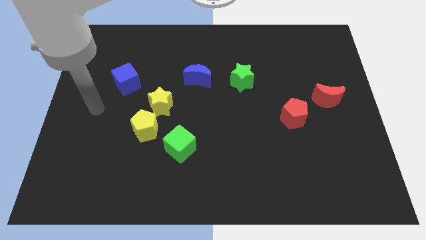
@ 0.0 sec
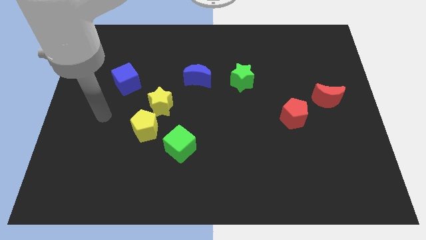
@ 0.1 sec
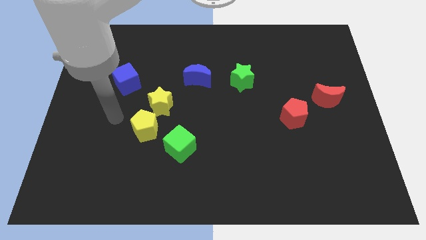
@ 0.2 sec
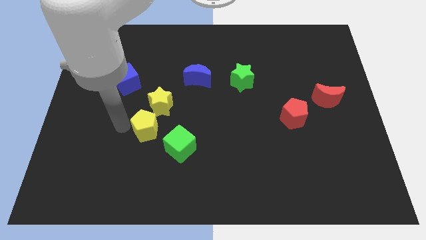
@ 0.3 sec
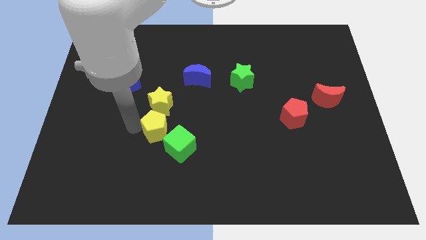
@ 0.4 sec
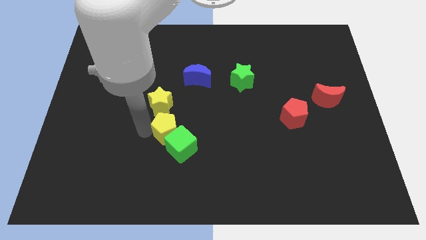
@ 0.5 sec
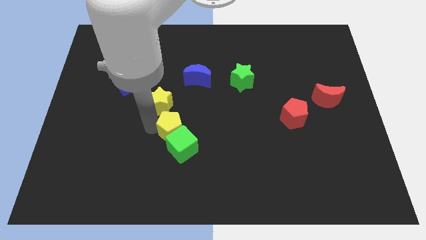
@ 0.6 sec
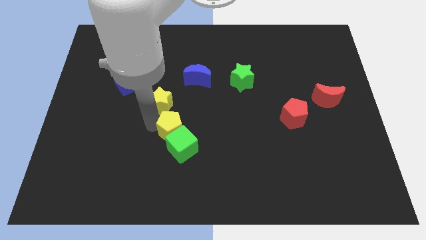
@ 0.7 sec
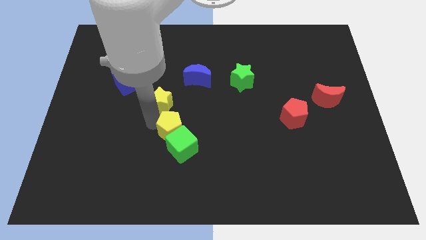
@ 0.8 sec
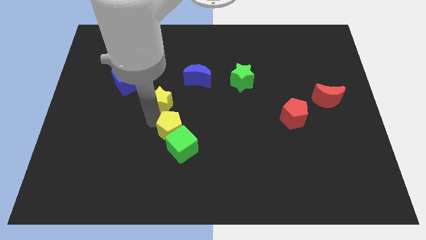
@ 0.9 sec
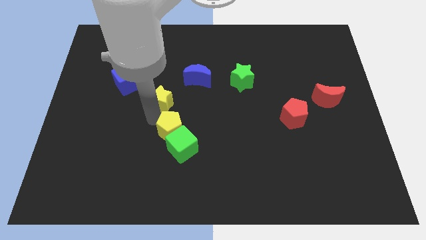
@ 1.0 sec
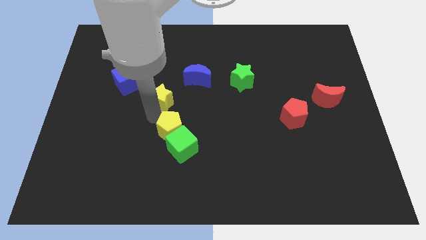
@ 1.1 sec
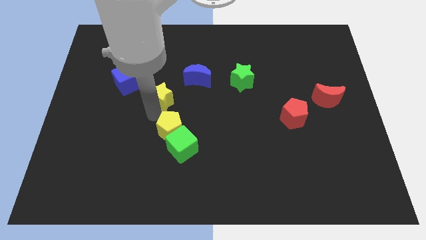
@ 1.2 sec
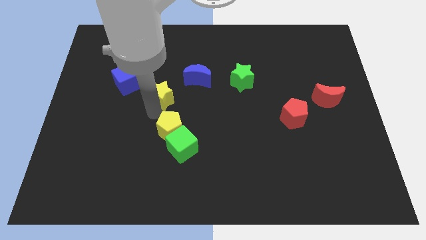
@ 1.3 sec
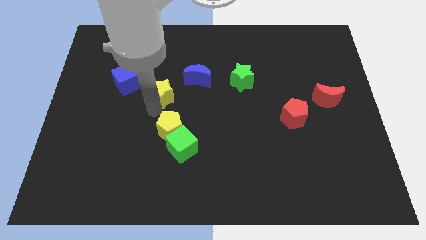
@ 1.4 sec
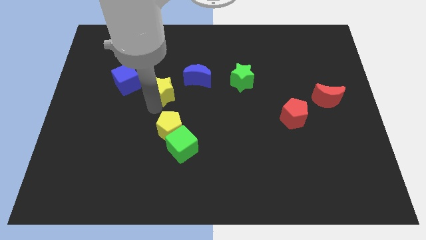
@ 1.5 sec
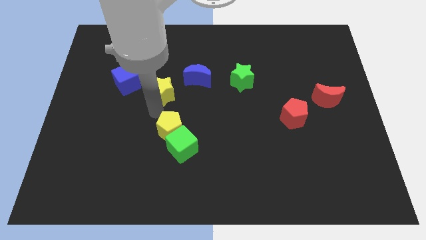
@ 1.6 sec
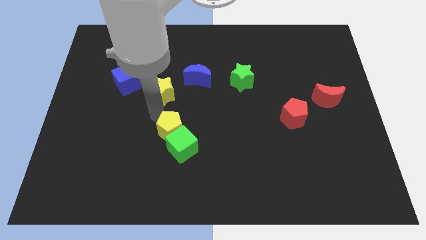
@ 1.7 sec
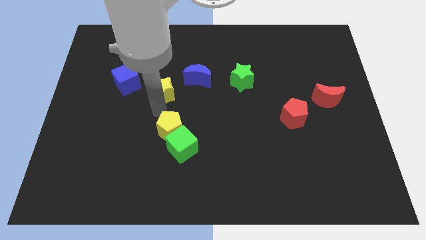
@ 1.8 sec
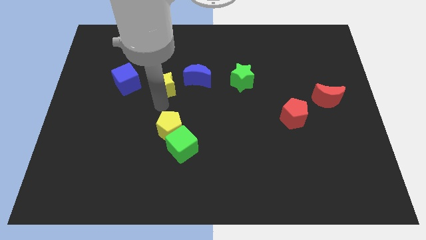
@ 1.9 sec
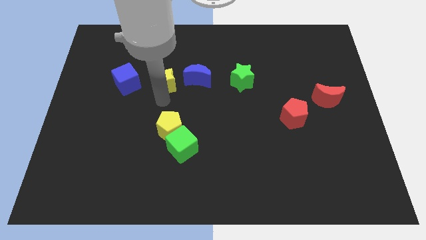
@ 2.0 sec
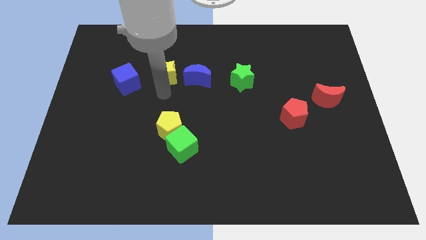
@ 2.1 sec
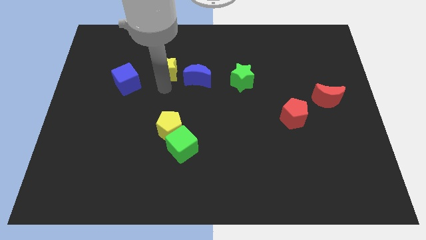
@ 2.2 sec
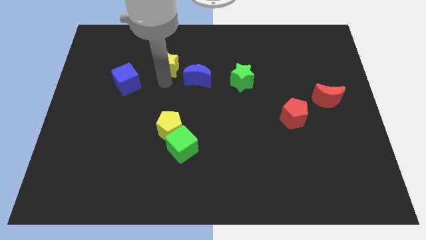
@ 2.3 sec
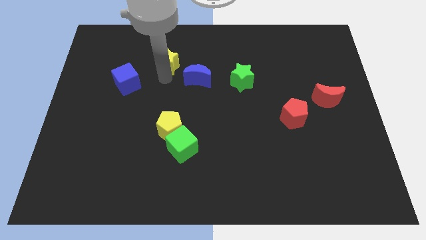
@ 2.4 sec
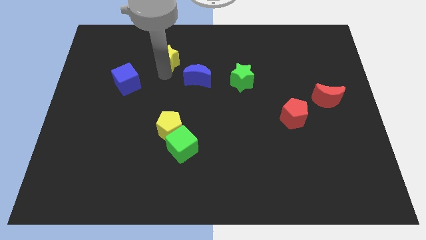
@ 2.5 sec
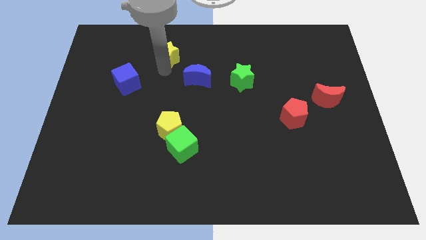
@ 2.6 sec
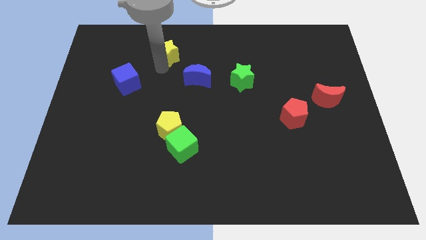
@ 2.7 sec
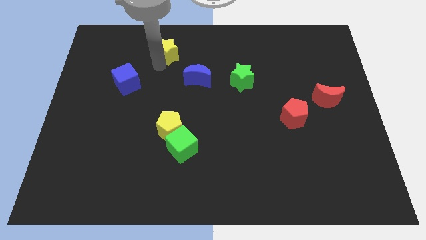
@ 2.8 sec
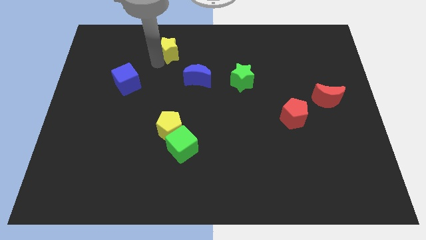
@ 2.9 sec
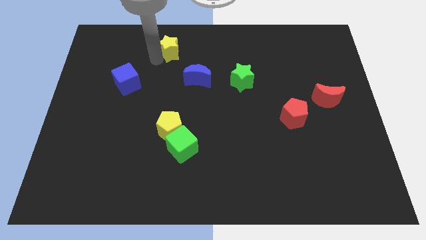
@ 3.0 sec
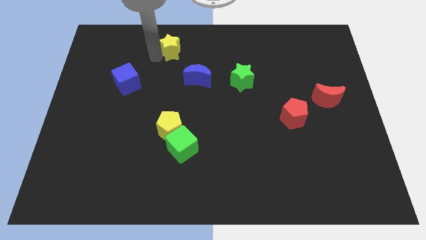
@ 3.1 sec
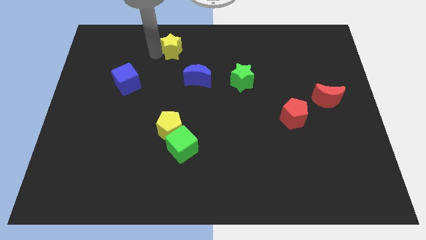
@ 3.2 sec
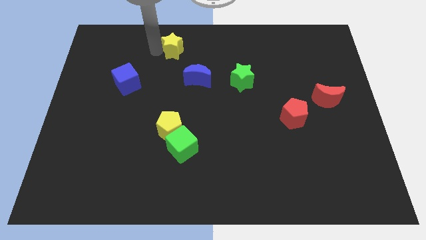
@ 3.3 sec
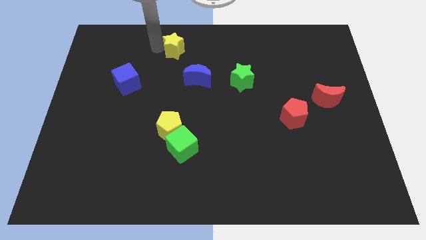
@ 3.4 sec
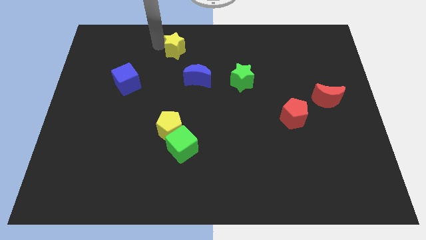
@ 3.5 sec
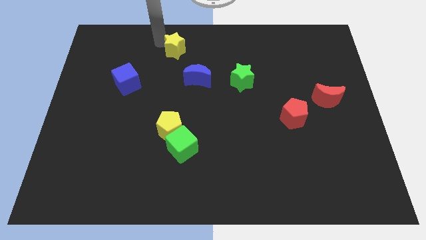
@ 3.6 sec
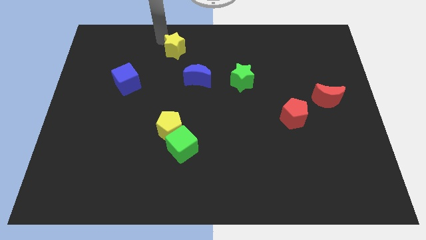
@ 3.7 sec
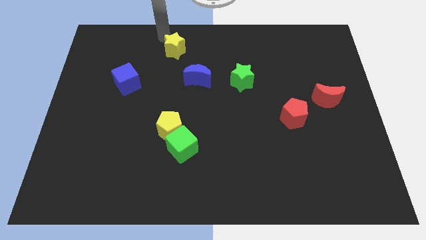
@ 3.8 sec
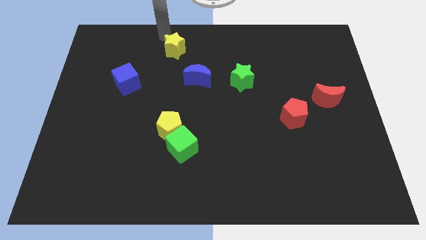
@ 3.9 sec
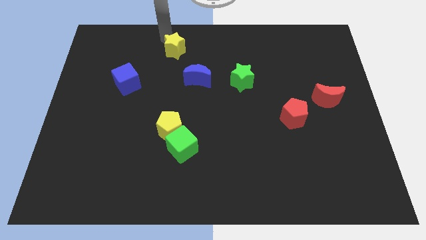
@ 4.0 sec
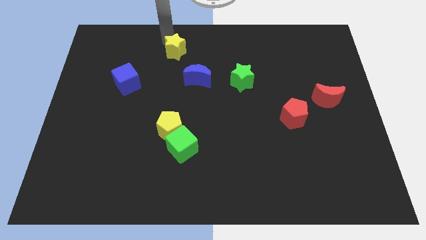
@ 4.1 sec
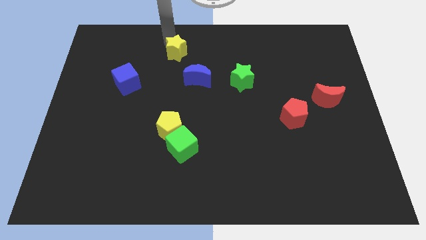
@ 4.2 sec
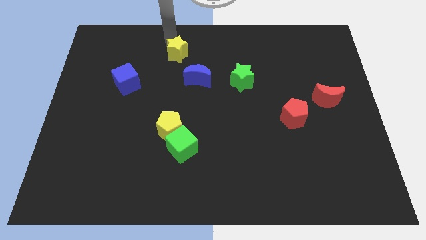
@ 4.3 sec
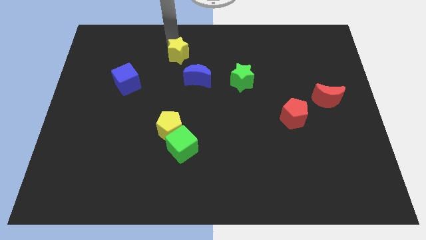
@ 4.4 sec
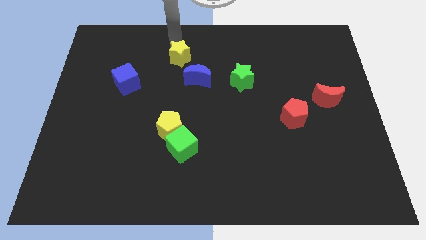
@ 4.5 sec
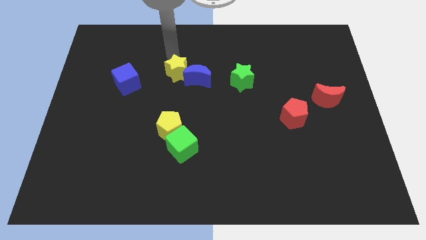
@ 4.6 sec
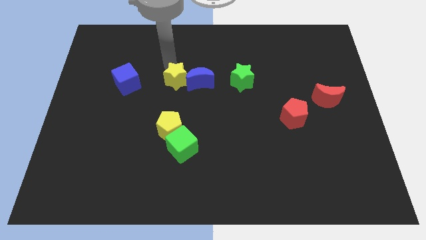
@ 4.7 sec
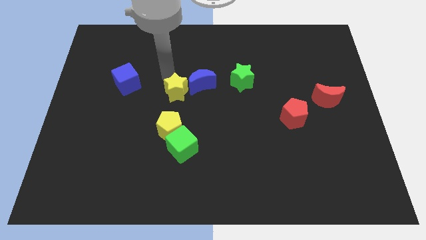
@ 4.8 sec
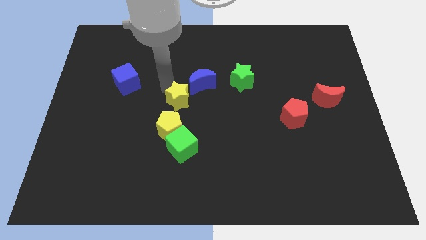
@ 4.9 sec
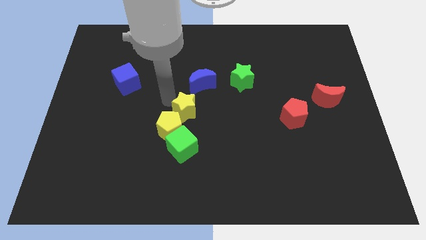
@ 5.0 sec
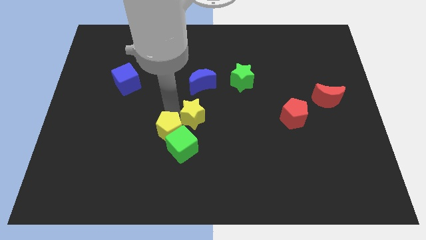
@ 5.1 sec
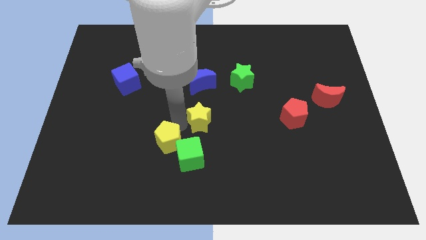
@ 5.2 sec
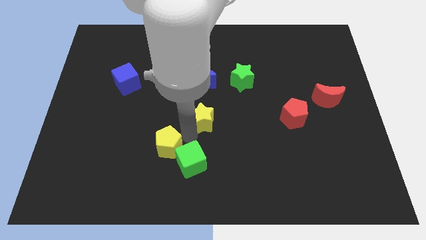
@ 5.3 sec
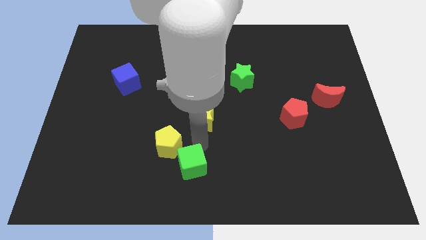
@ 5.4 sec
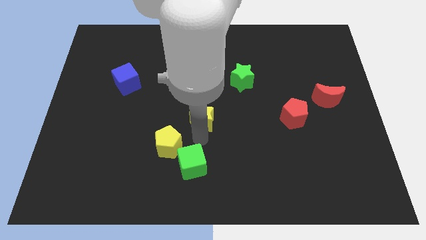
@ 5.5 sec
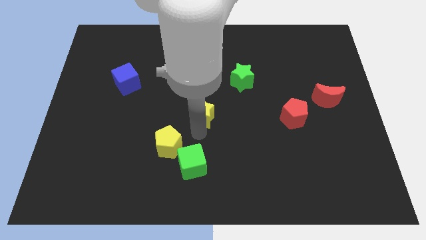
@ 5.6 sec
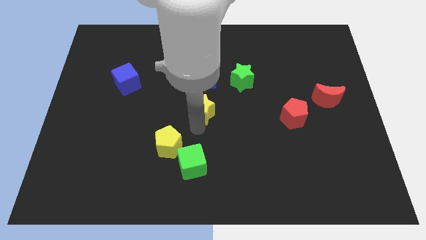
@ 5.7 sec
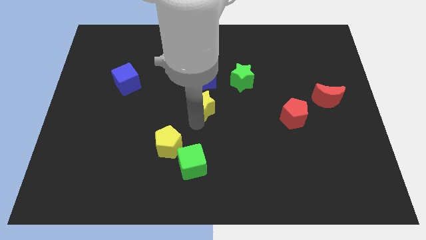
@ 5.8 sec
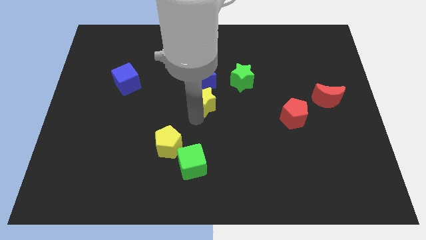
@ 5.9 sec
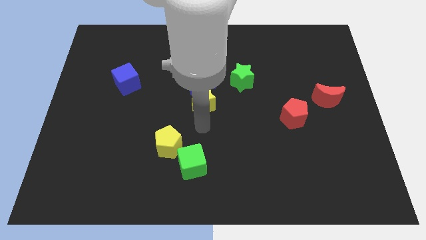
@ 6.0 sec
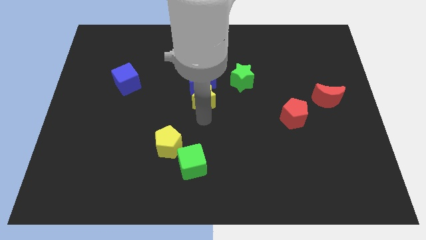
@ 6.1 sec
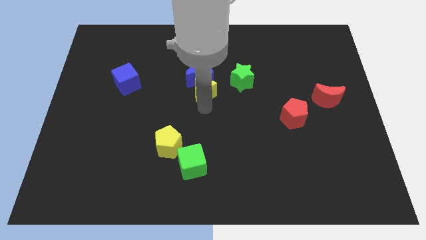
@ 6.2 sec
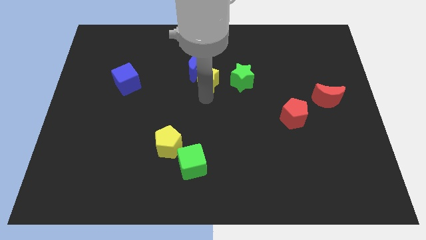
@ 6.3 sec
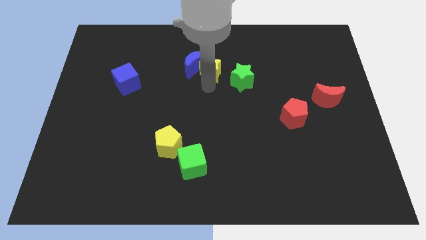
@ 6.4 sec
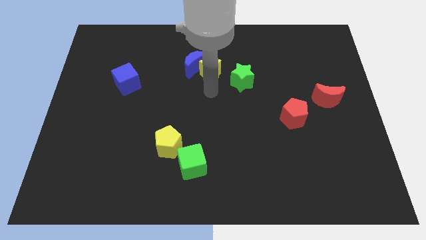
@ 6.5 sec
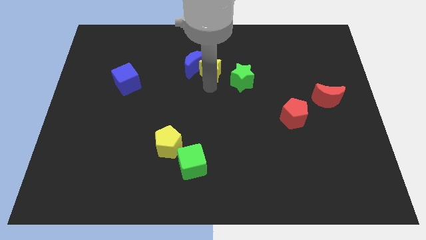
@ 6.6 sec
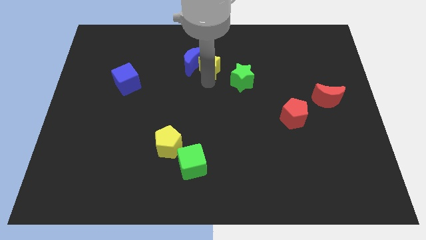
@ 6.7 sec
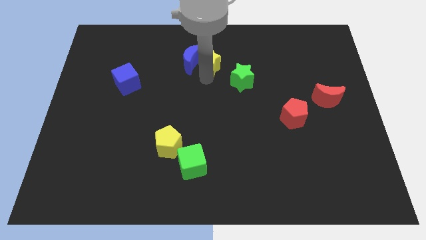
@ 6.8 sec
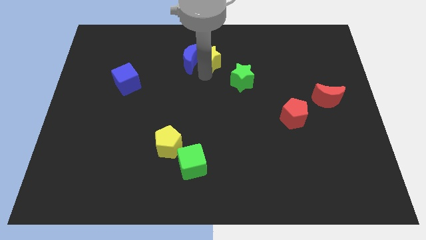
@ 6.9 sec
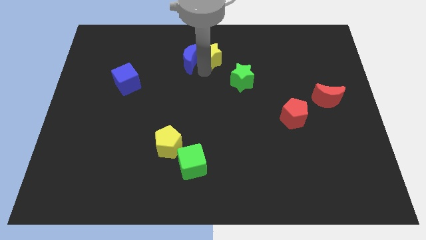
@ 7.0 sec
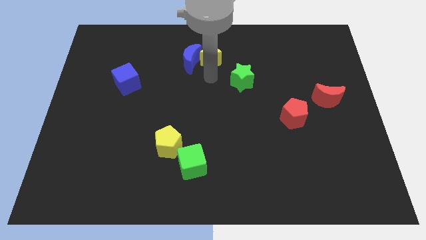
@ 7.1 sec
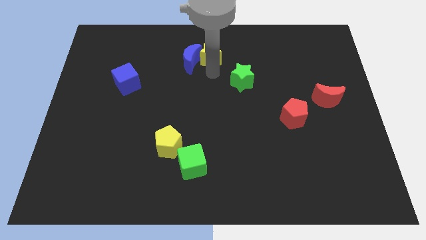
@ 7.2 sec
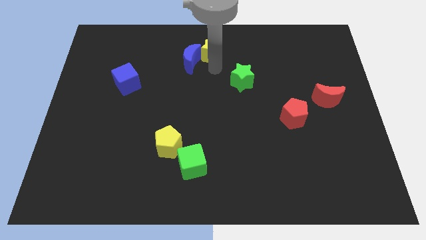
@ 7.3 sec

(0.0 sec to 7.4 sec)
move the yellow star to the towards your base
